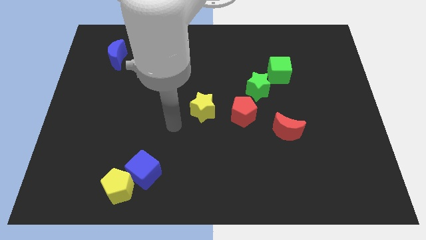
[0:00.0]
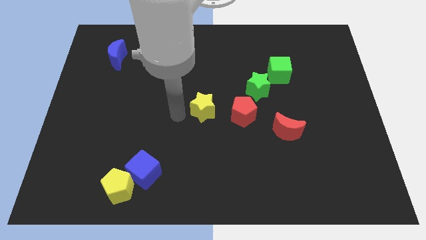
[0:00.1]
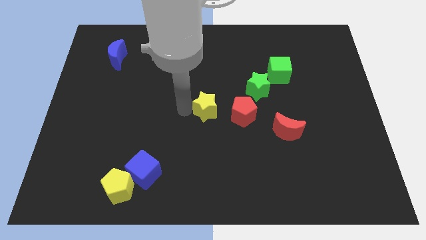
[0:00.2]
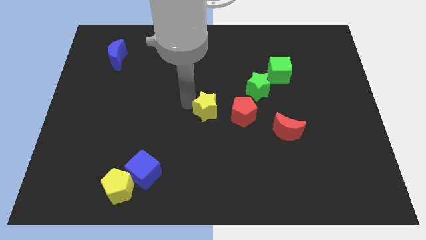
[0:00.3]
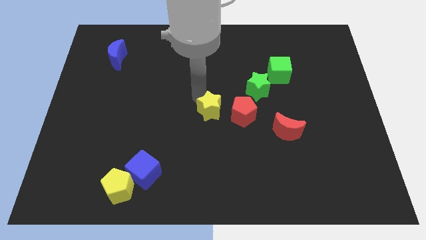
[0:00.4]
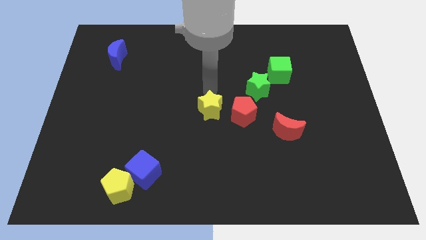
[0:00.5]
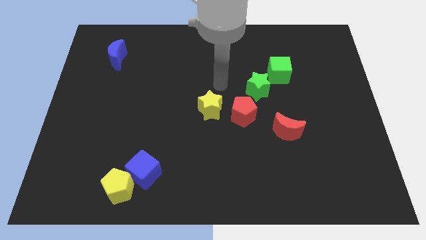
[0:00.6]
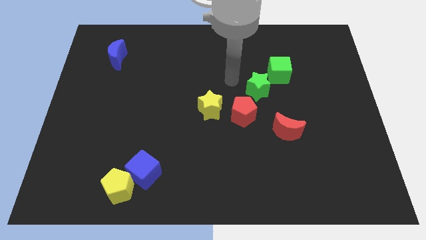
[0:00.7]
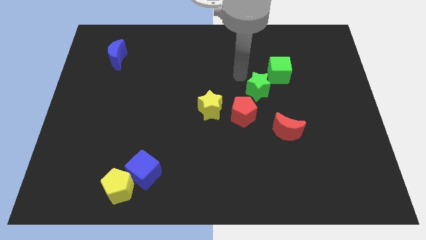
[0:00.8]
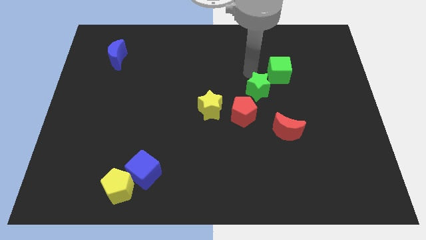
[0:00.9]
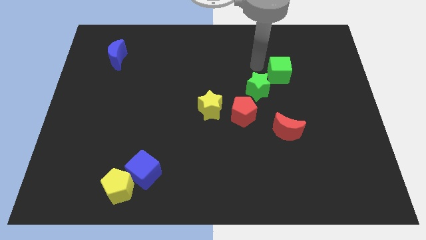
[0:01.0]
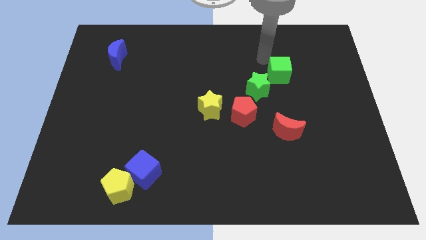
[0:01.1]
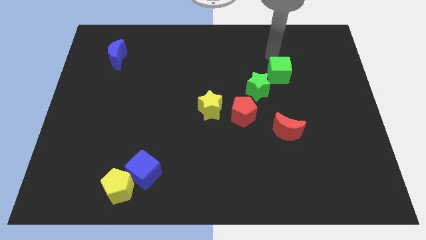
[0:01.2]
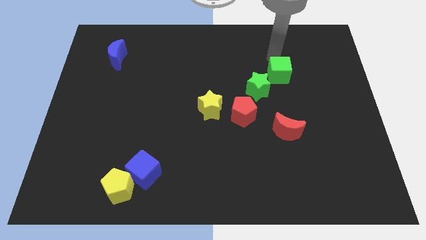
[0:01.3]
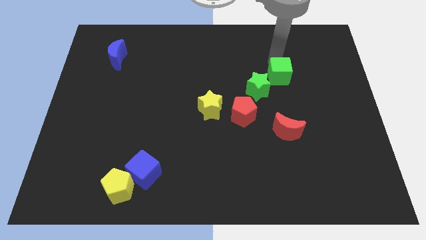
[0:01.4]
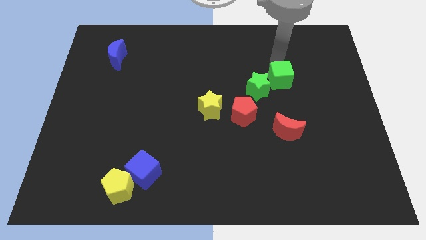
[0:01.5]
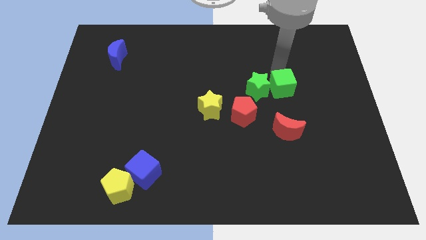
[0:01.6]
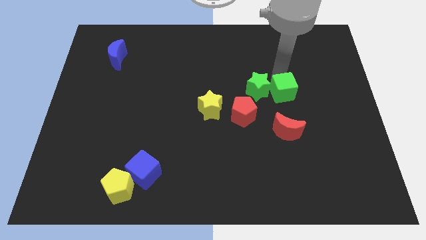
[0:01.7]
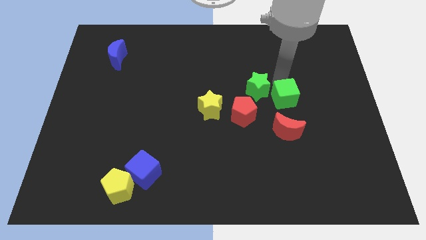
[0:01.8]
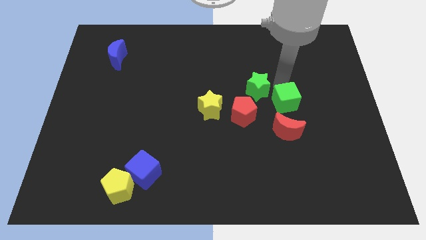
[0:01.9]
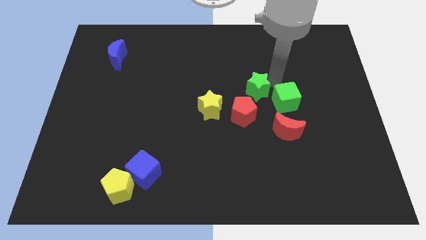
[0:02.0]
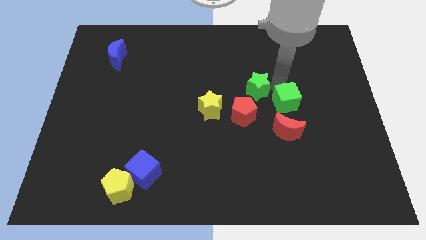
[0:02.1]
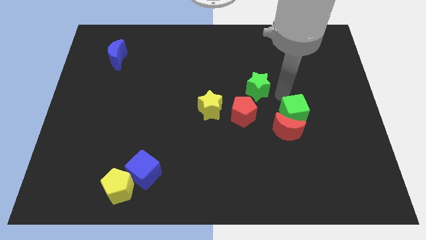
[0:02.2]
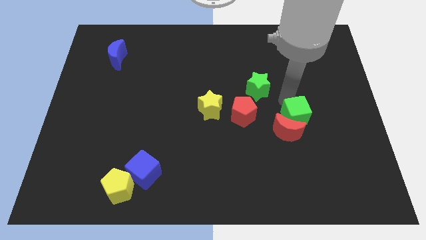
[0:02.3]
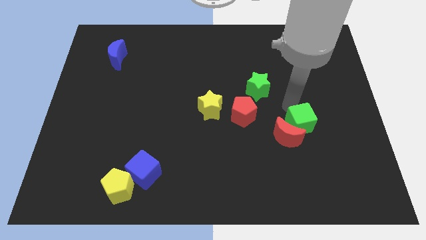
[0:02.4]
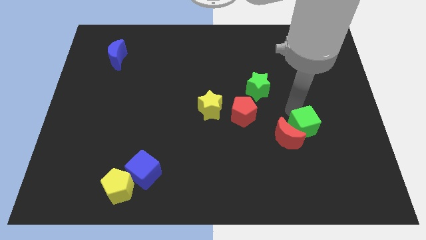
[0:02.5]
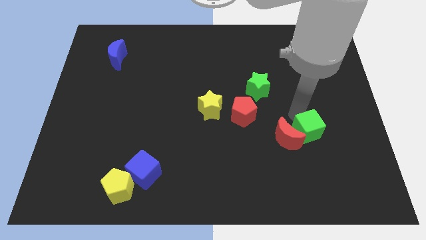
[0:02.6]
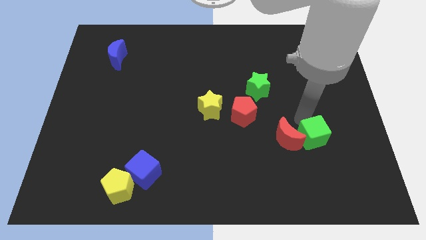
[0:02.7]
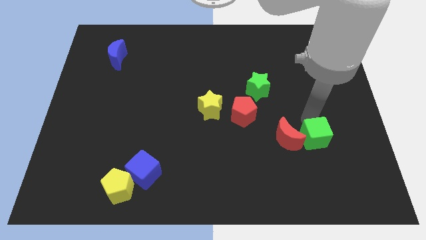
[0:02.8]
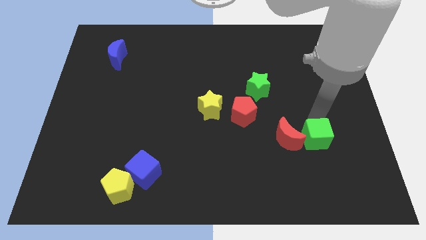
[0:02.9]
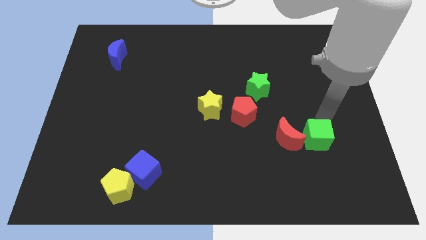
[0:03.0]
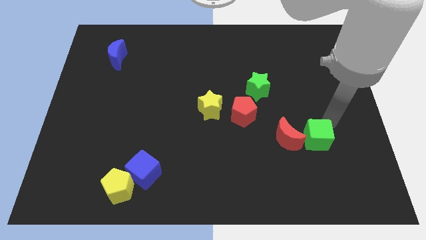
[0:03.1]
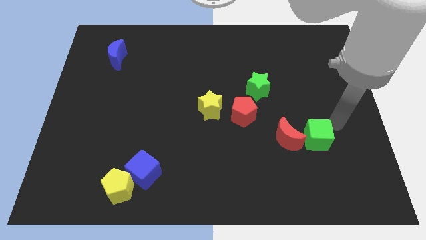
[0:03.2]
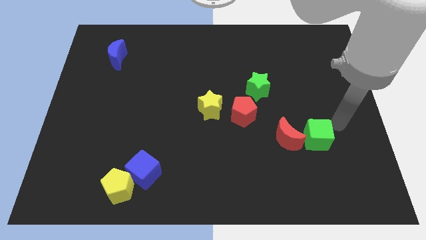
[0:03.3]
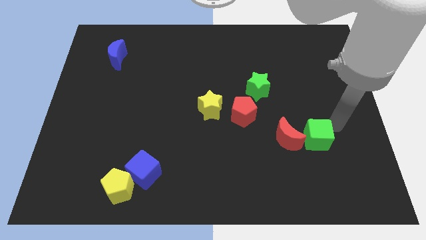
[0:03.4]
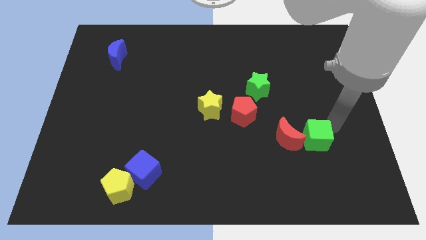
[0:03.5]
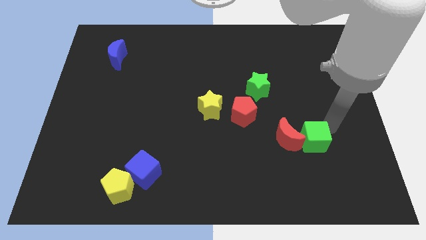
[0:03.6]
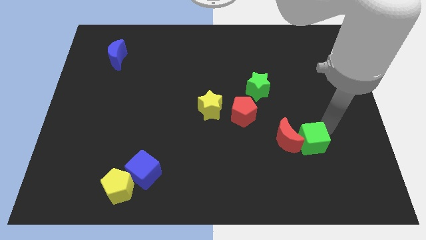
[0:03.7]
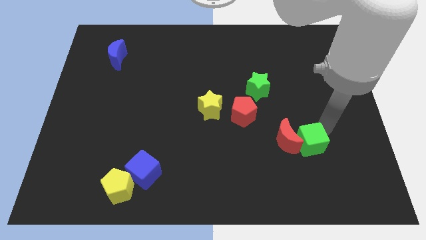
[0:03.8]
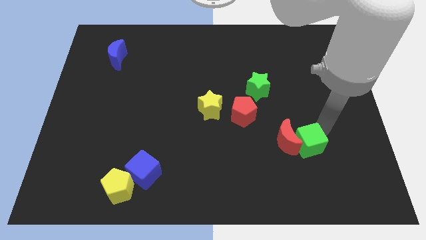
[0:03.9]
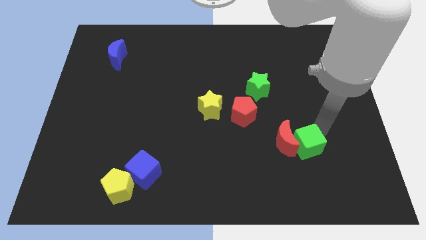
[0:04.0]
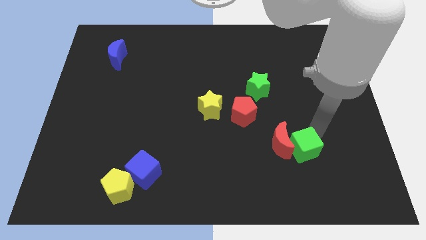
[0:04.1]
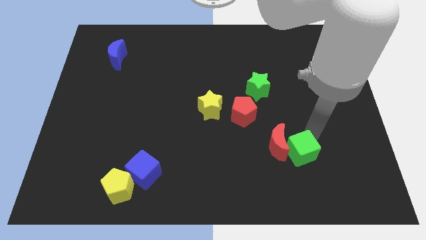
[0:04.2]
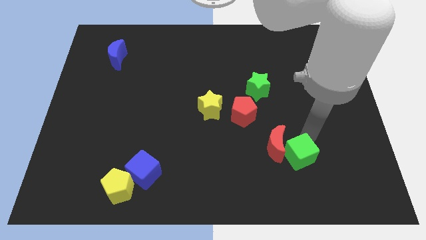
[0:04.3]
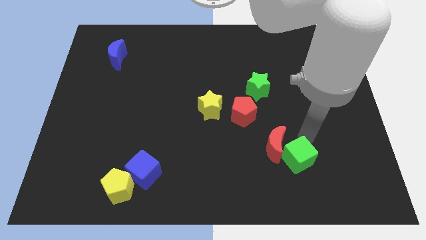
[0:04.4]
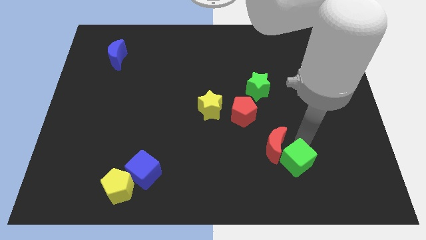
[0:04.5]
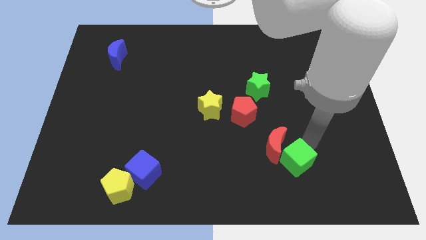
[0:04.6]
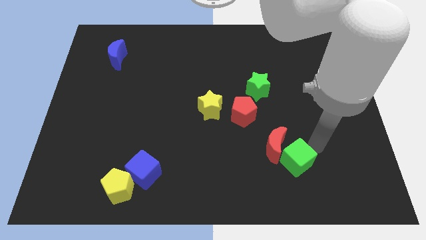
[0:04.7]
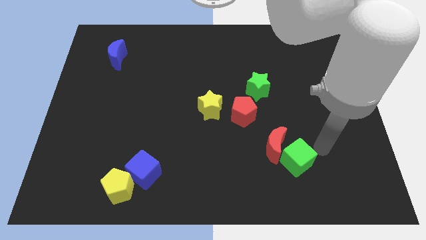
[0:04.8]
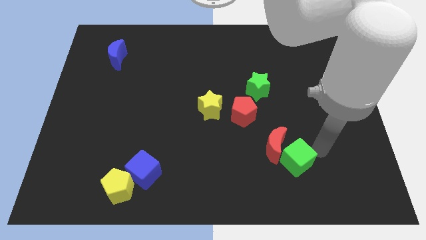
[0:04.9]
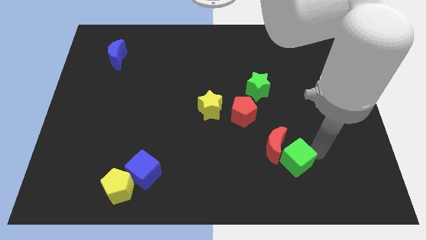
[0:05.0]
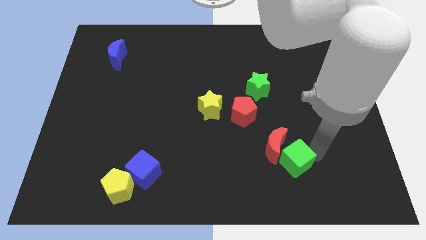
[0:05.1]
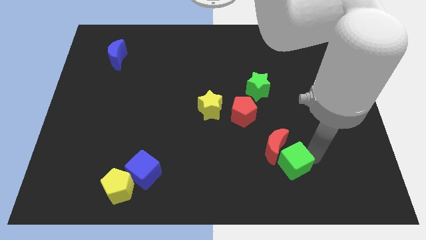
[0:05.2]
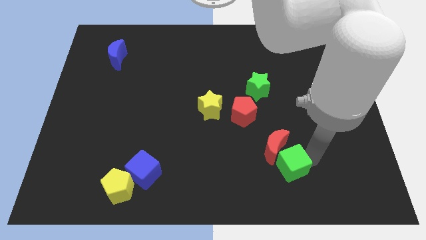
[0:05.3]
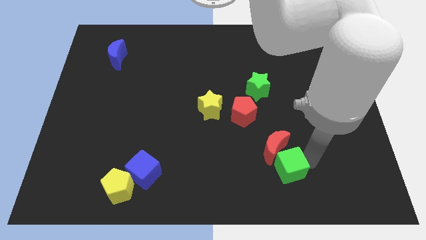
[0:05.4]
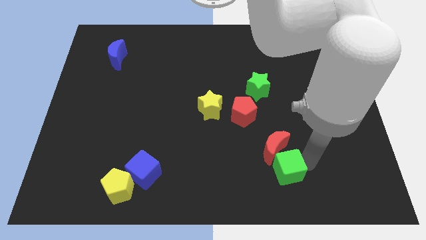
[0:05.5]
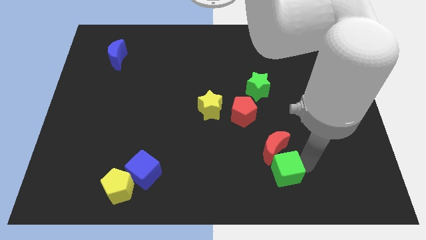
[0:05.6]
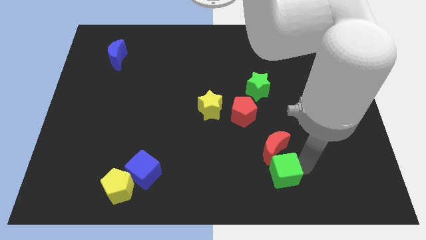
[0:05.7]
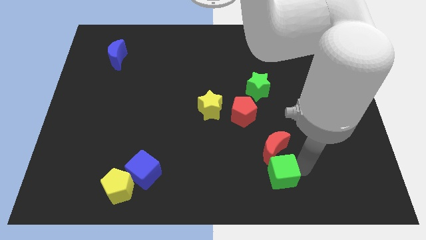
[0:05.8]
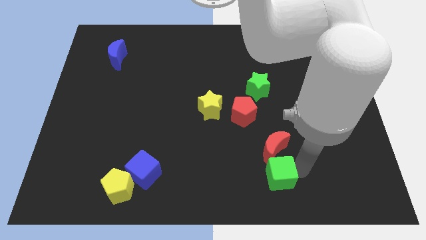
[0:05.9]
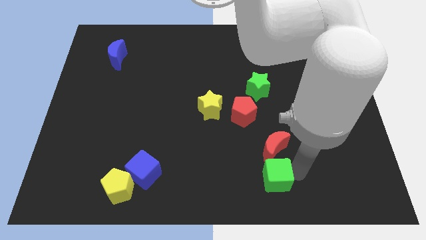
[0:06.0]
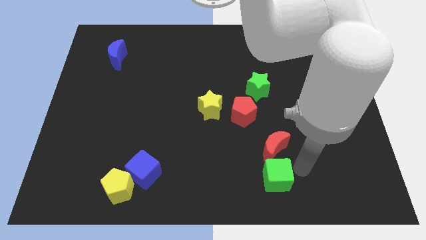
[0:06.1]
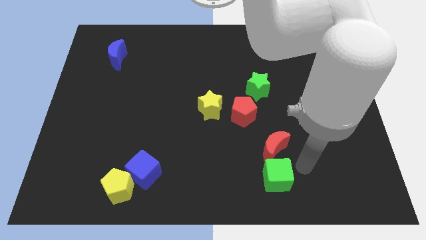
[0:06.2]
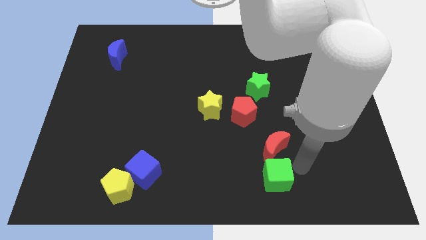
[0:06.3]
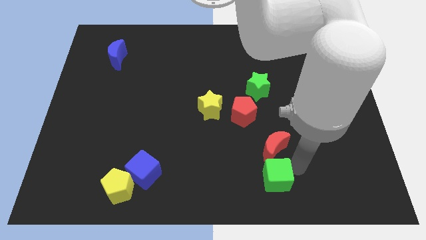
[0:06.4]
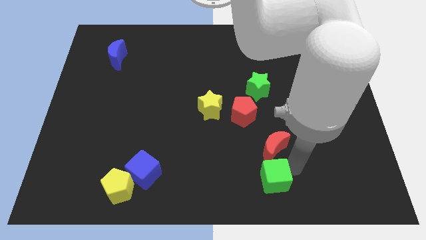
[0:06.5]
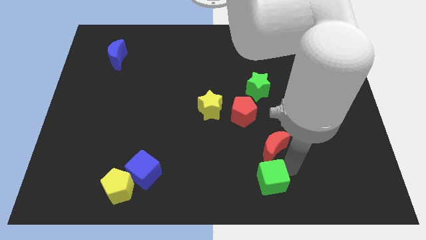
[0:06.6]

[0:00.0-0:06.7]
slide the green cube to the bottom side
